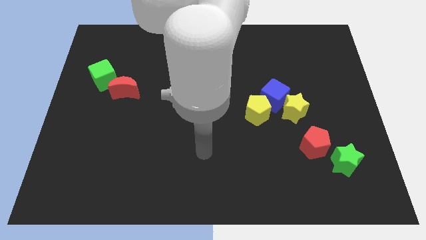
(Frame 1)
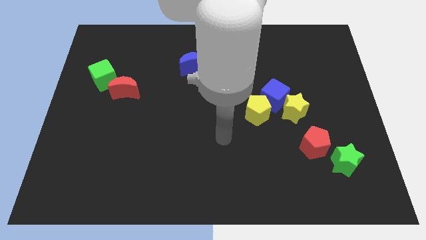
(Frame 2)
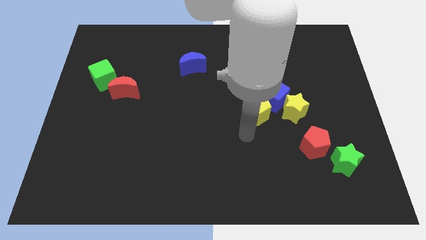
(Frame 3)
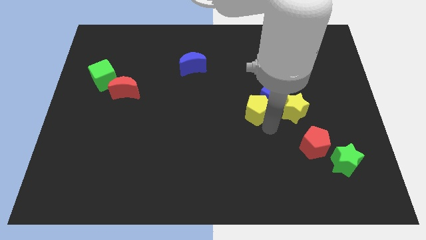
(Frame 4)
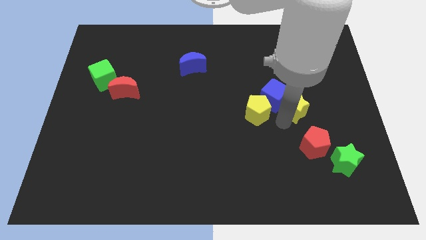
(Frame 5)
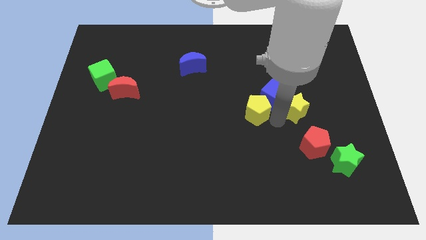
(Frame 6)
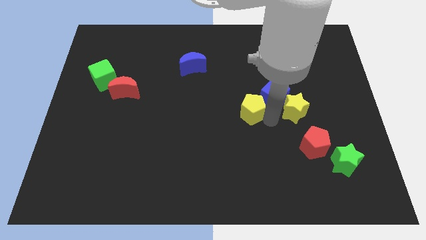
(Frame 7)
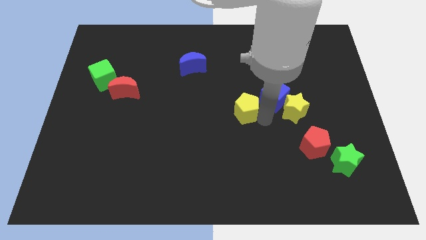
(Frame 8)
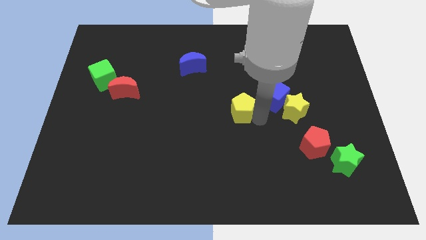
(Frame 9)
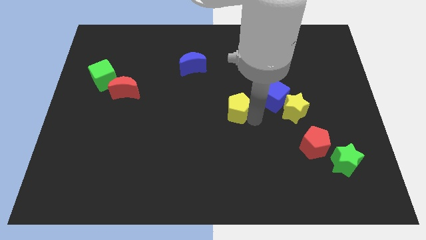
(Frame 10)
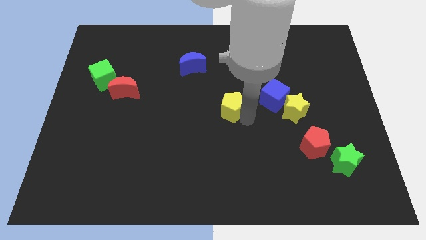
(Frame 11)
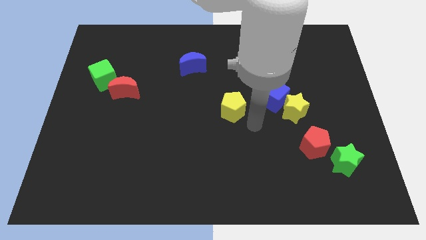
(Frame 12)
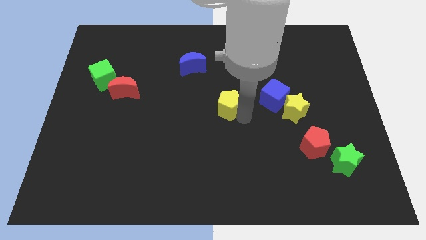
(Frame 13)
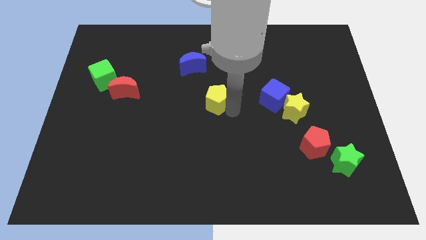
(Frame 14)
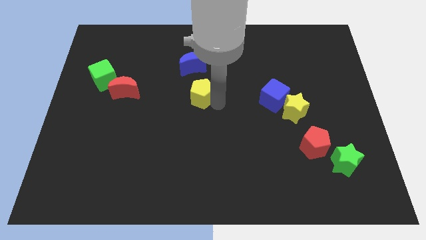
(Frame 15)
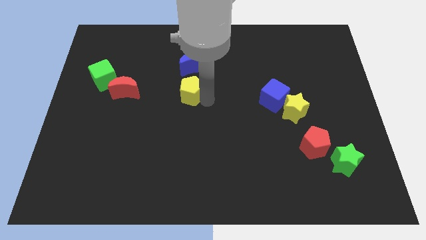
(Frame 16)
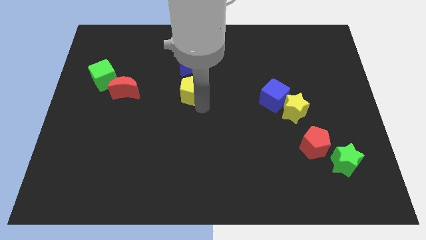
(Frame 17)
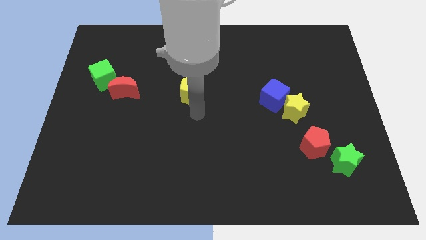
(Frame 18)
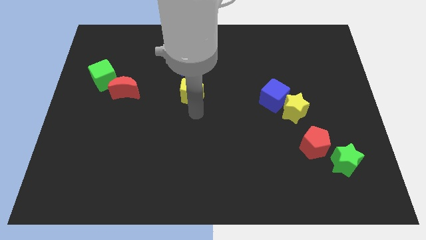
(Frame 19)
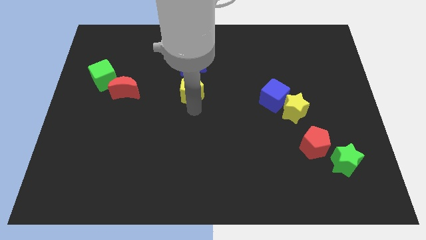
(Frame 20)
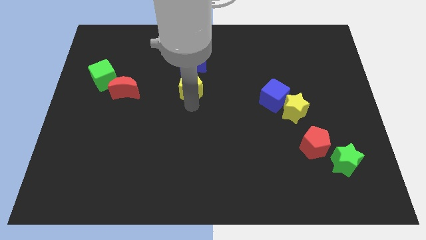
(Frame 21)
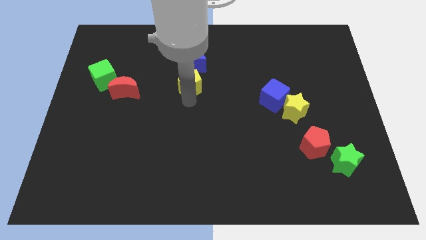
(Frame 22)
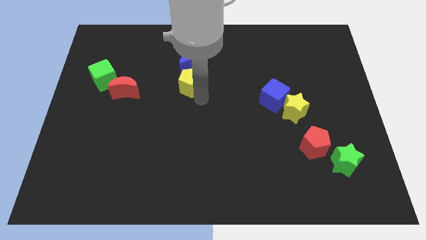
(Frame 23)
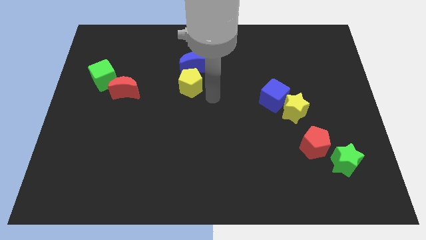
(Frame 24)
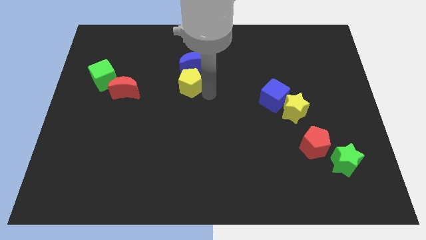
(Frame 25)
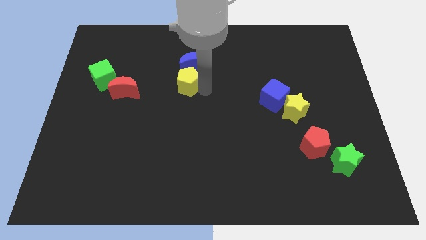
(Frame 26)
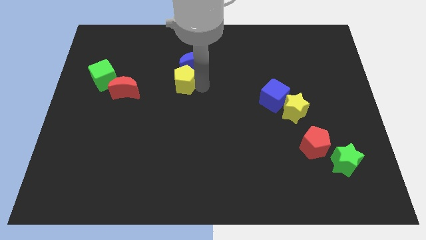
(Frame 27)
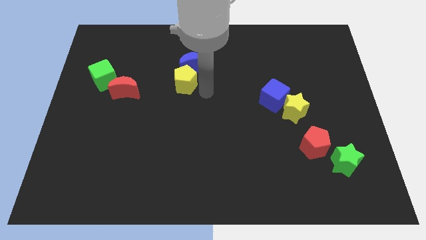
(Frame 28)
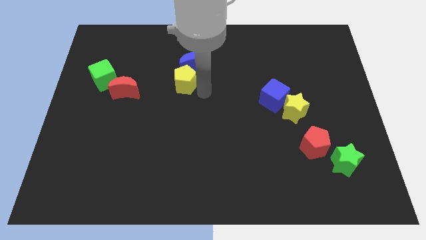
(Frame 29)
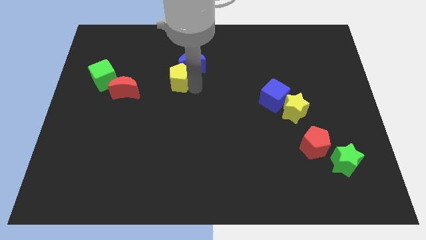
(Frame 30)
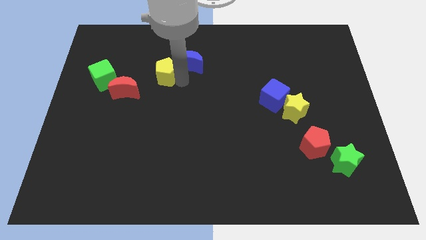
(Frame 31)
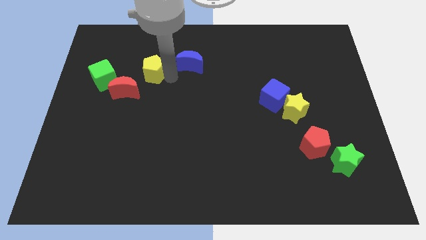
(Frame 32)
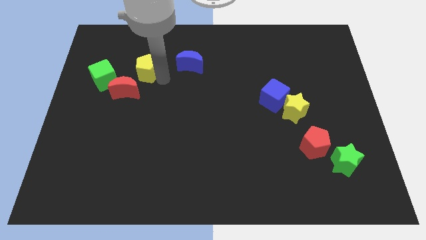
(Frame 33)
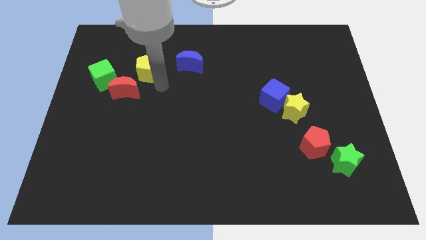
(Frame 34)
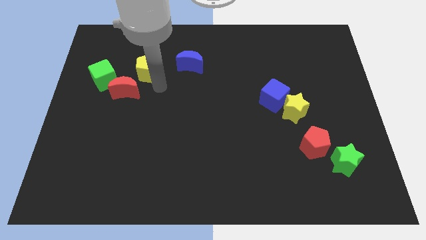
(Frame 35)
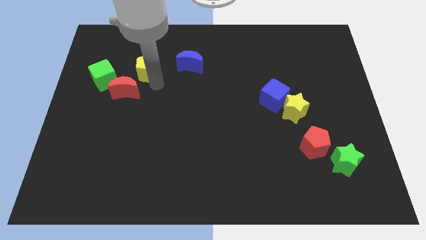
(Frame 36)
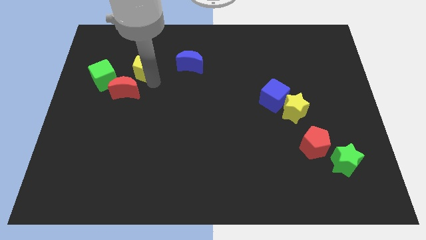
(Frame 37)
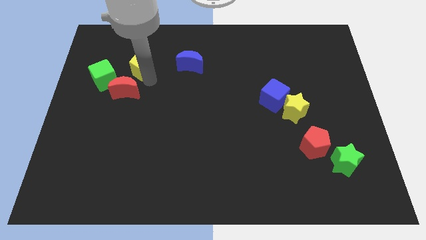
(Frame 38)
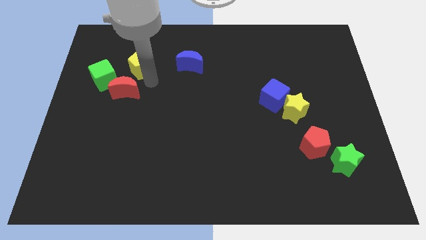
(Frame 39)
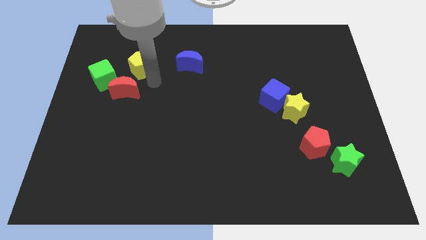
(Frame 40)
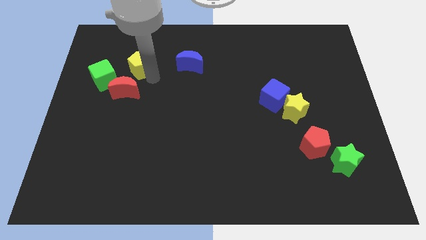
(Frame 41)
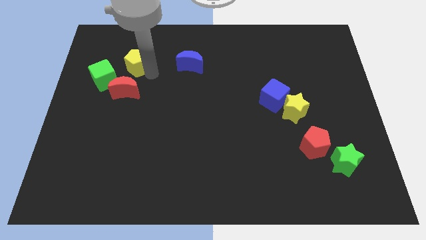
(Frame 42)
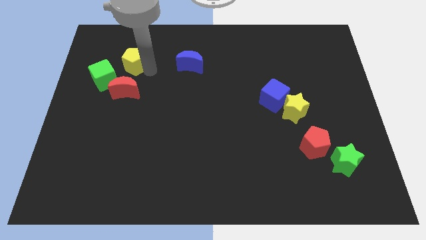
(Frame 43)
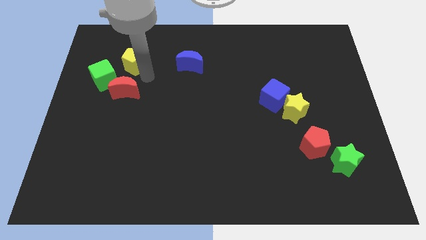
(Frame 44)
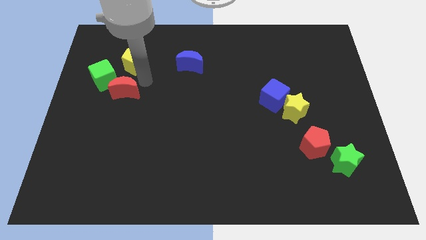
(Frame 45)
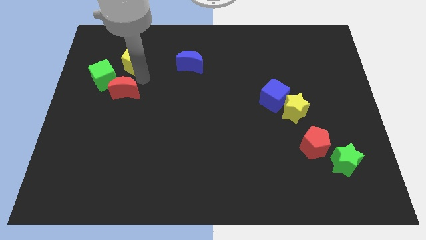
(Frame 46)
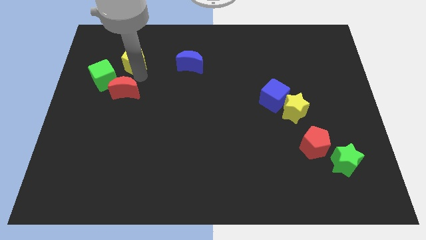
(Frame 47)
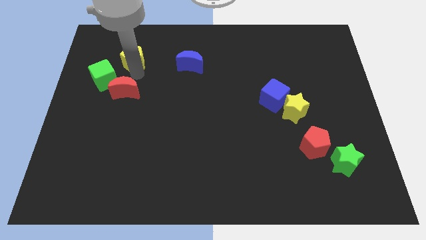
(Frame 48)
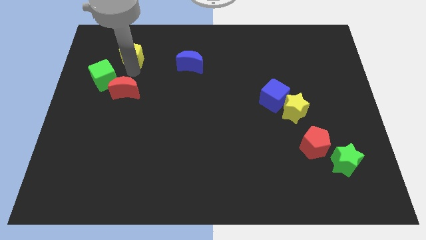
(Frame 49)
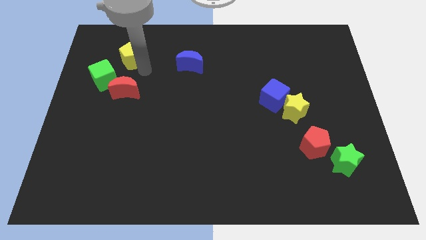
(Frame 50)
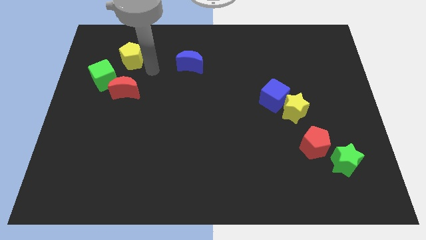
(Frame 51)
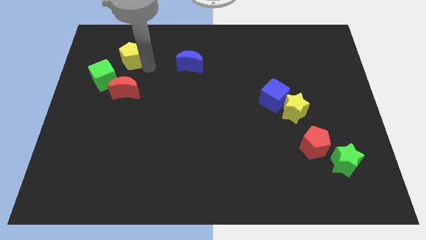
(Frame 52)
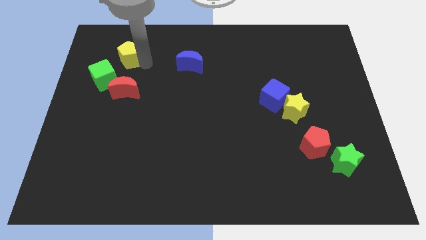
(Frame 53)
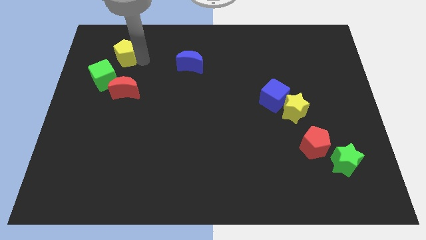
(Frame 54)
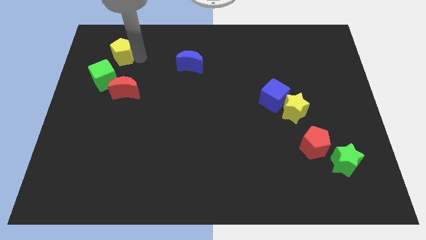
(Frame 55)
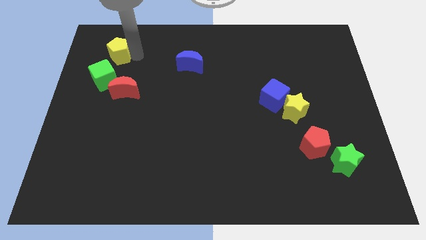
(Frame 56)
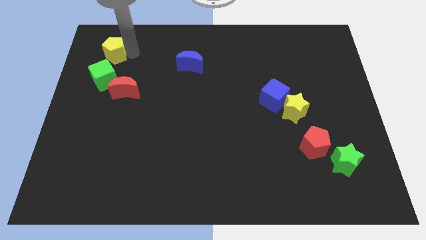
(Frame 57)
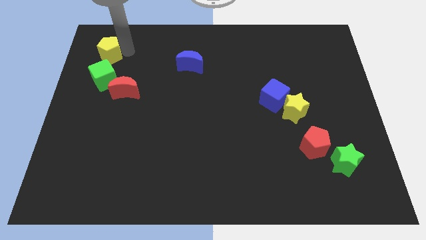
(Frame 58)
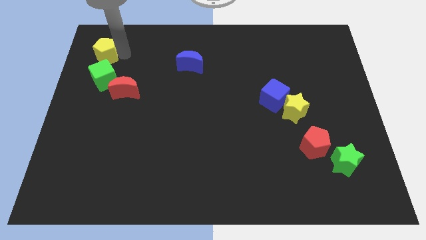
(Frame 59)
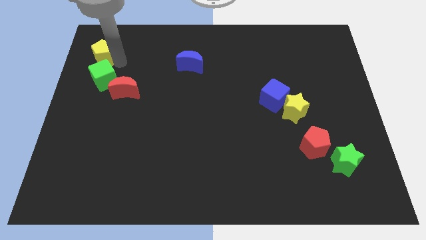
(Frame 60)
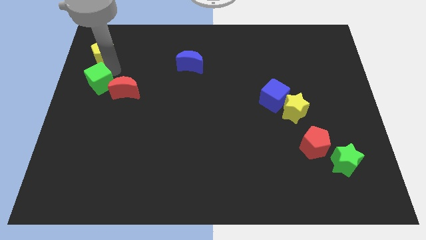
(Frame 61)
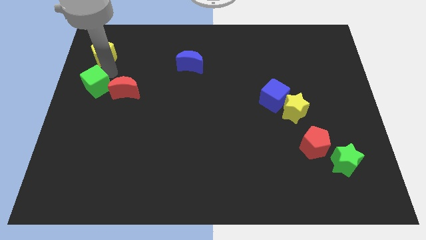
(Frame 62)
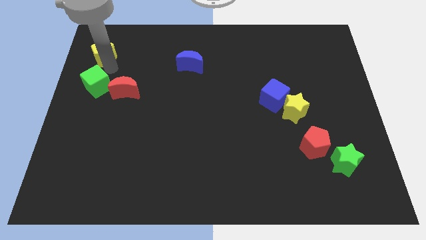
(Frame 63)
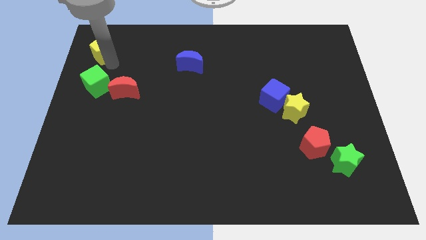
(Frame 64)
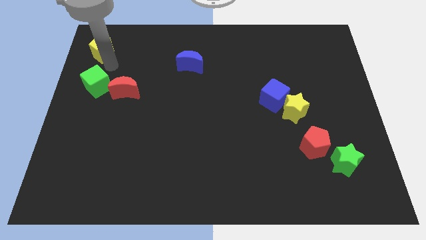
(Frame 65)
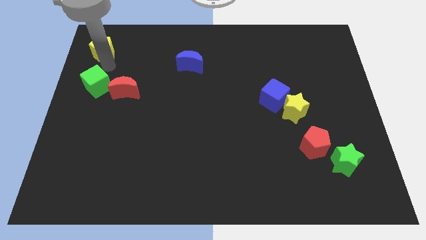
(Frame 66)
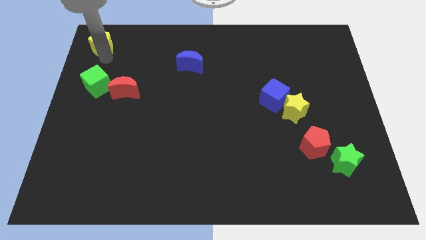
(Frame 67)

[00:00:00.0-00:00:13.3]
move the yellow pentagon to the top left of the board
